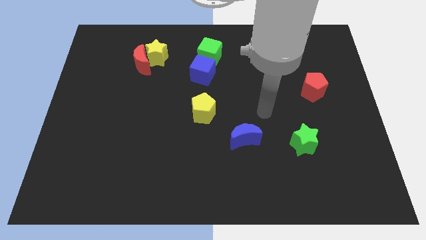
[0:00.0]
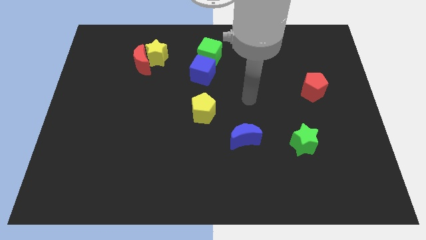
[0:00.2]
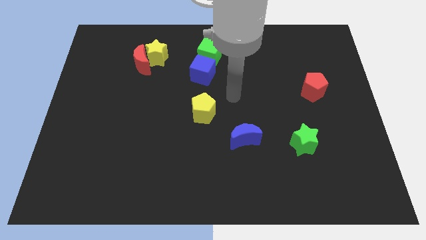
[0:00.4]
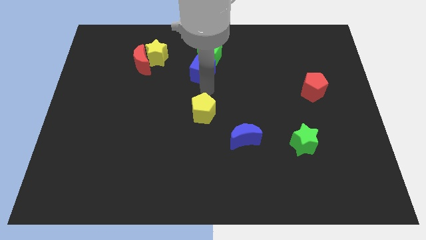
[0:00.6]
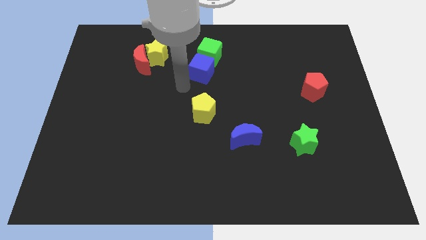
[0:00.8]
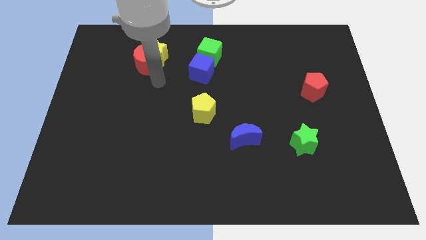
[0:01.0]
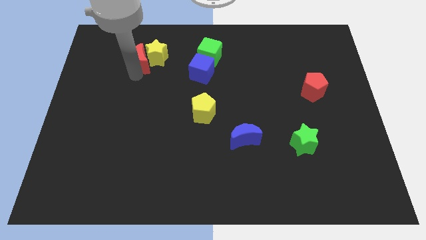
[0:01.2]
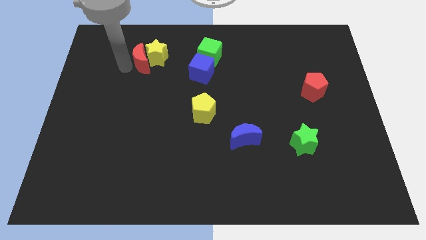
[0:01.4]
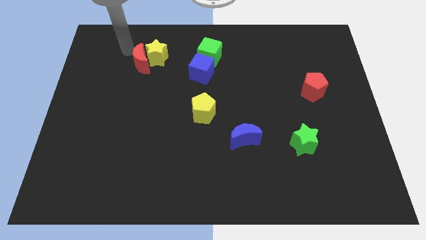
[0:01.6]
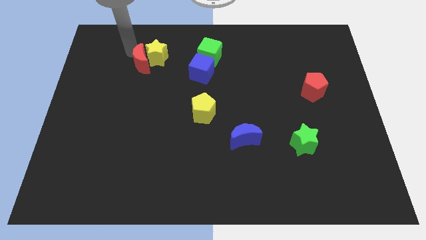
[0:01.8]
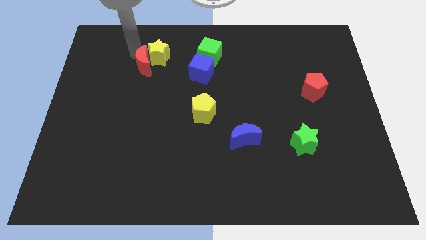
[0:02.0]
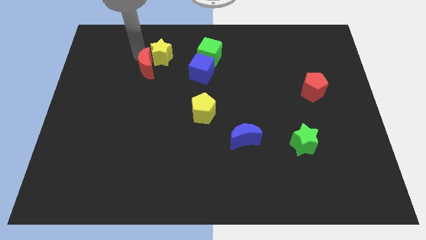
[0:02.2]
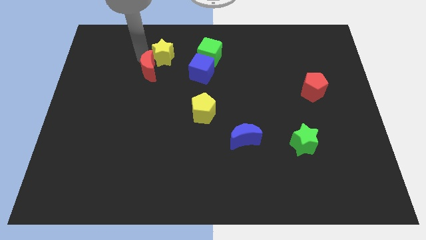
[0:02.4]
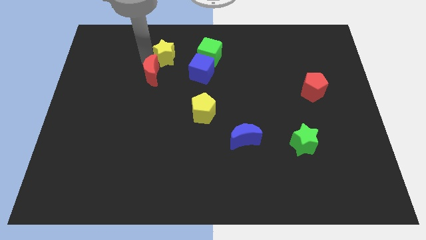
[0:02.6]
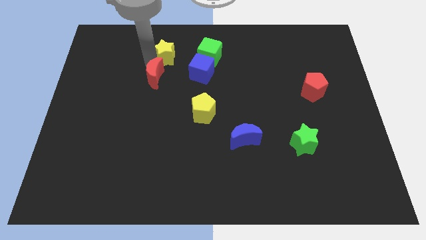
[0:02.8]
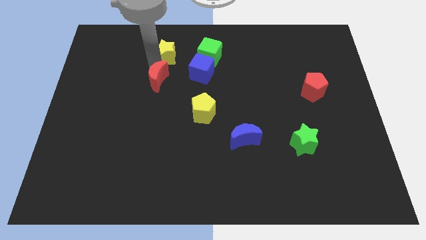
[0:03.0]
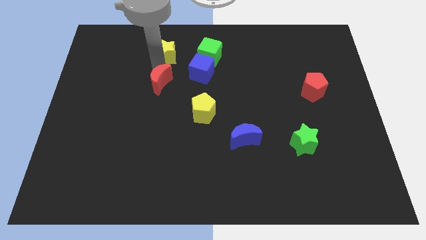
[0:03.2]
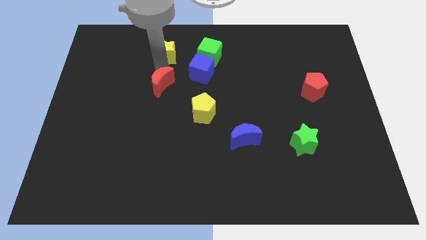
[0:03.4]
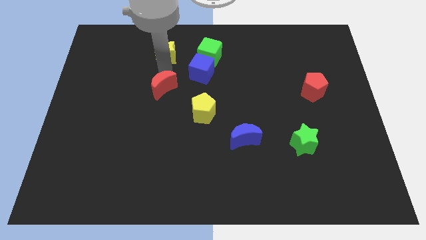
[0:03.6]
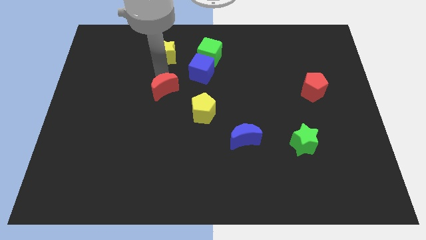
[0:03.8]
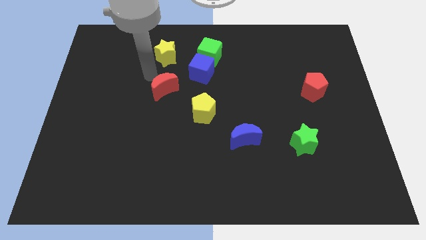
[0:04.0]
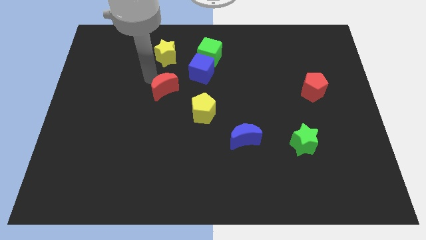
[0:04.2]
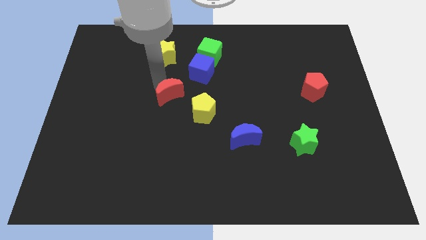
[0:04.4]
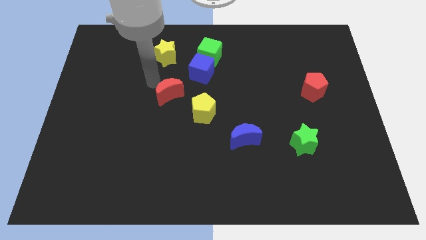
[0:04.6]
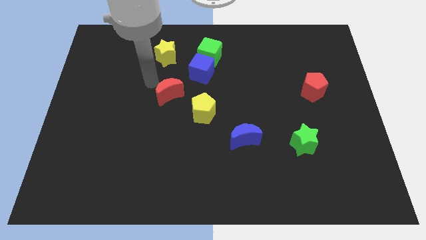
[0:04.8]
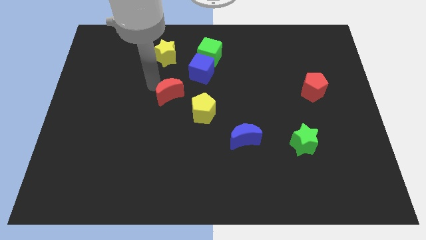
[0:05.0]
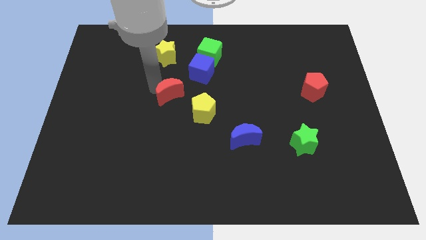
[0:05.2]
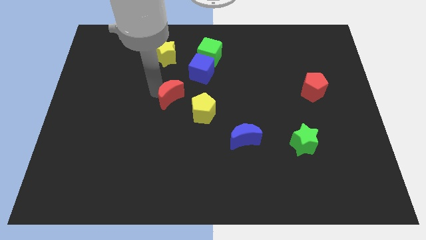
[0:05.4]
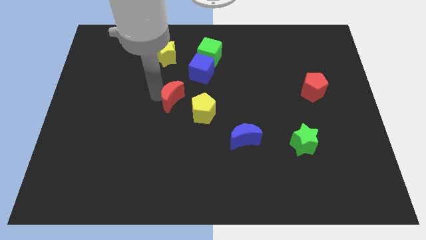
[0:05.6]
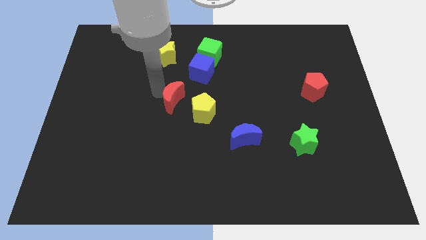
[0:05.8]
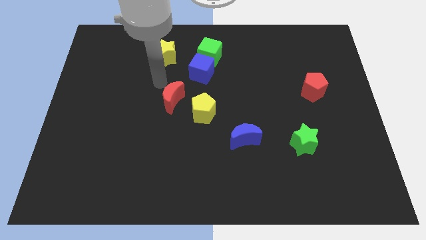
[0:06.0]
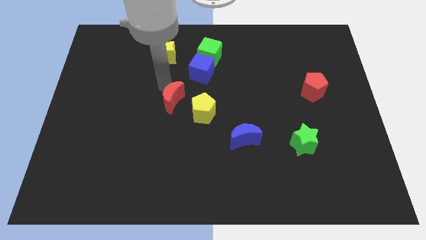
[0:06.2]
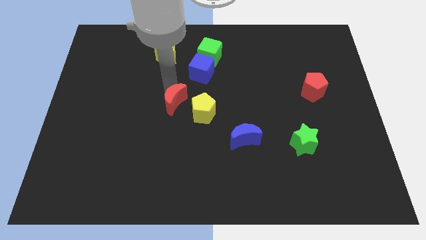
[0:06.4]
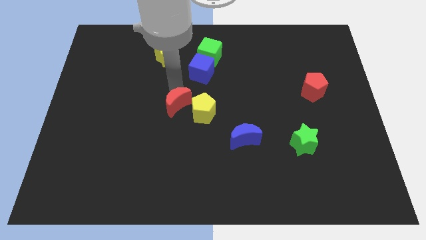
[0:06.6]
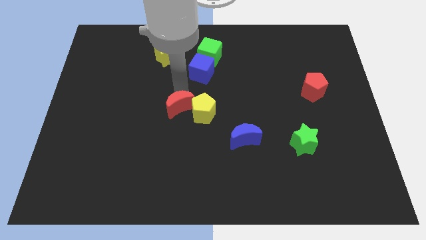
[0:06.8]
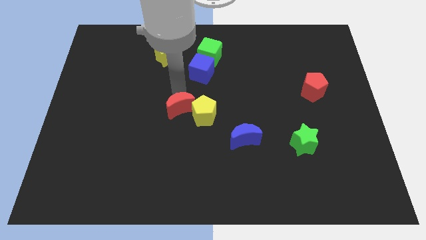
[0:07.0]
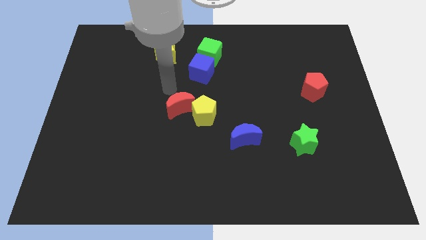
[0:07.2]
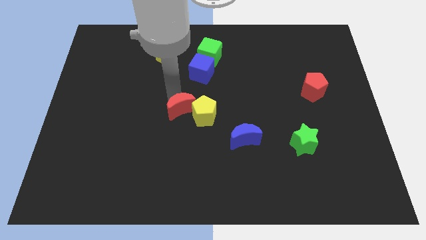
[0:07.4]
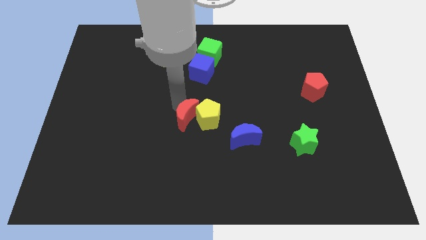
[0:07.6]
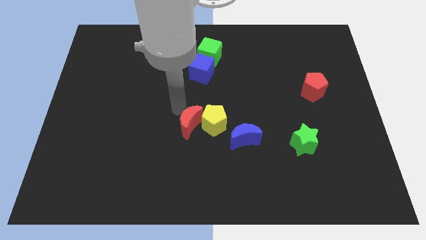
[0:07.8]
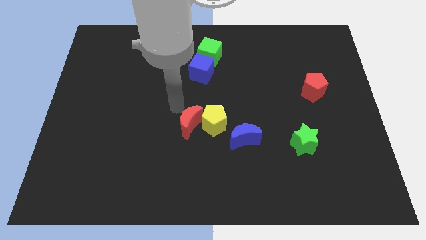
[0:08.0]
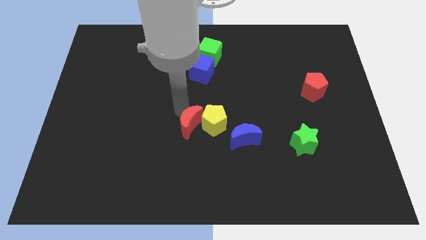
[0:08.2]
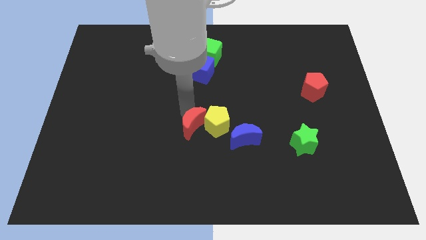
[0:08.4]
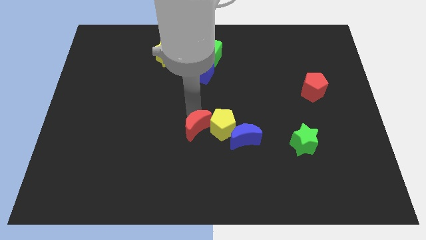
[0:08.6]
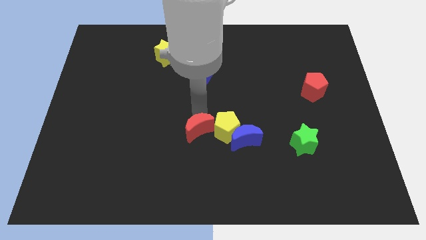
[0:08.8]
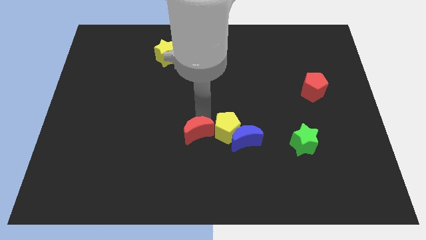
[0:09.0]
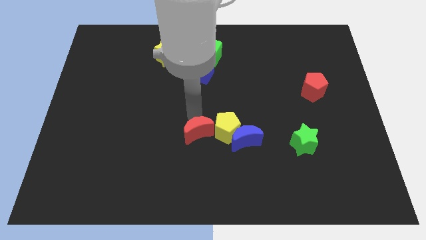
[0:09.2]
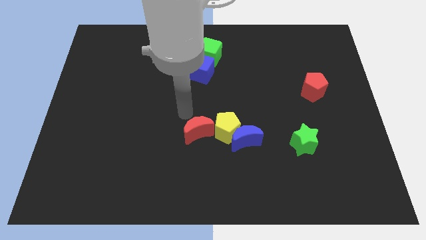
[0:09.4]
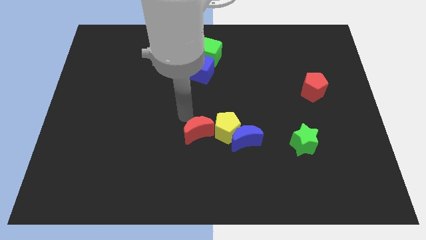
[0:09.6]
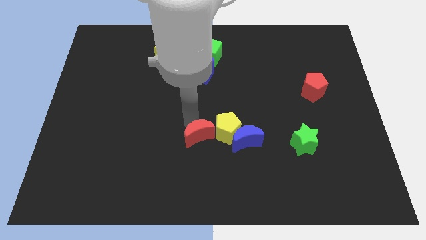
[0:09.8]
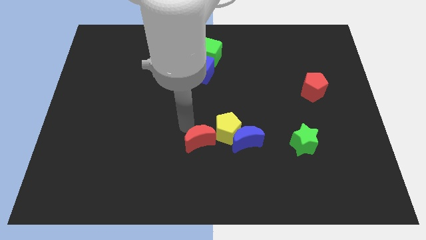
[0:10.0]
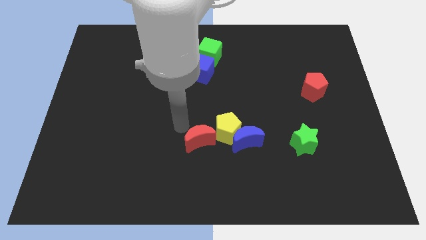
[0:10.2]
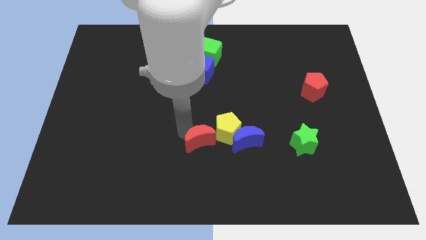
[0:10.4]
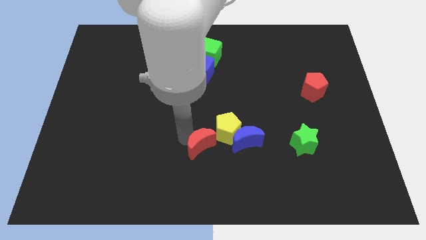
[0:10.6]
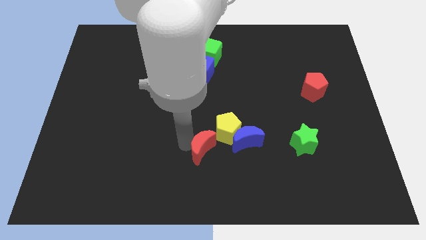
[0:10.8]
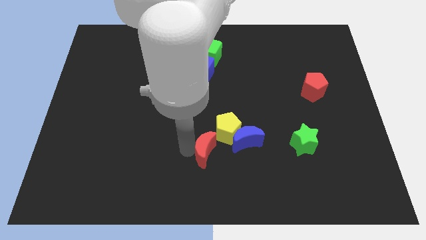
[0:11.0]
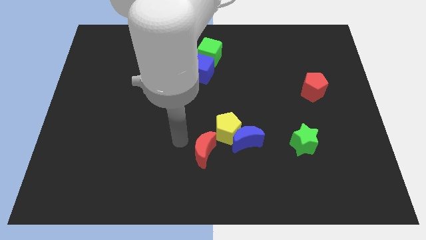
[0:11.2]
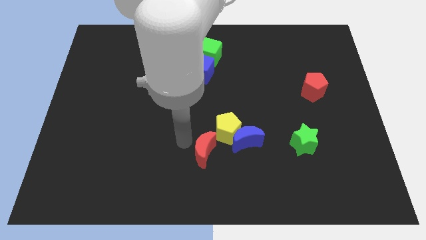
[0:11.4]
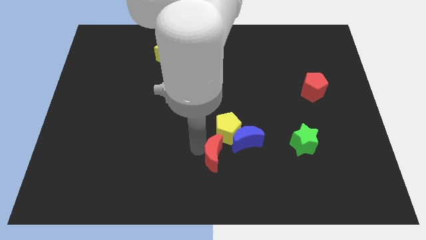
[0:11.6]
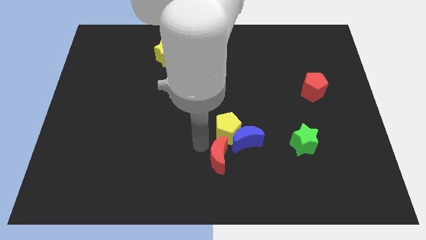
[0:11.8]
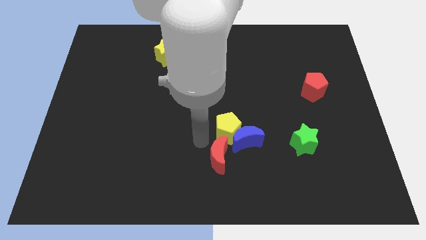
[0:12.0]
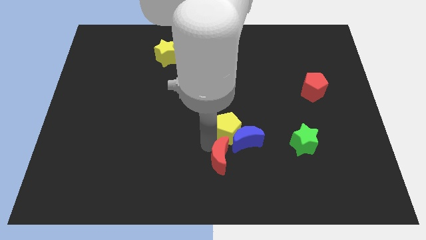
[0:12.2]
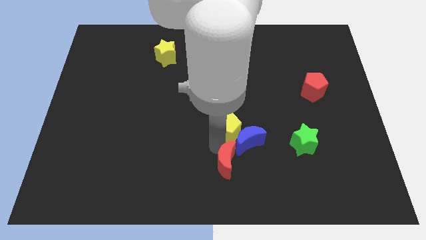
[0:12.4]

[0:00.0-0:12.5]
push the red moon below the blue moon

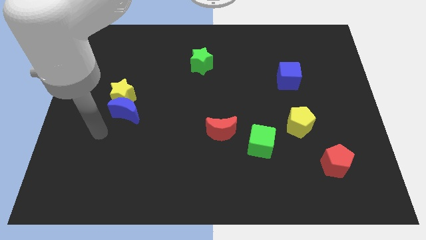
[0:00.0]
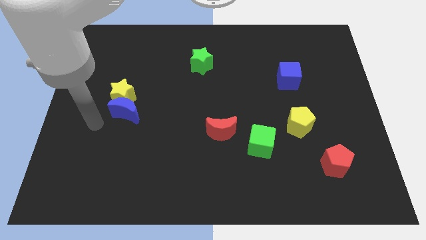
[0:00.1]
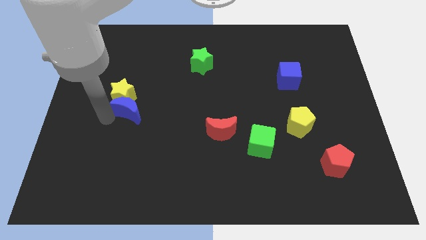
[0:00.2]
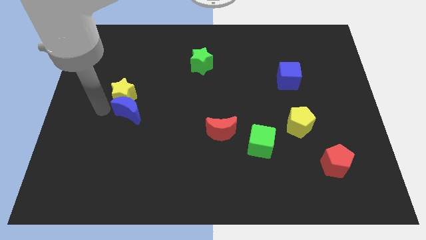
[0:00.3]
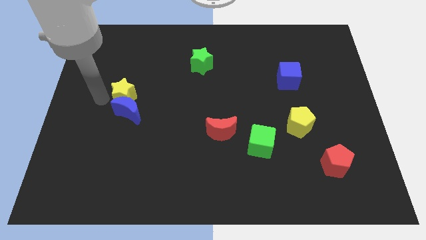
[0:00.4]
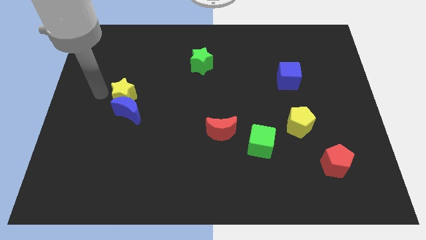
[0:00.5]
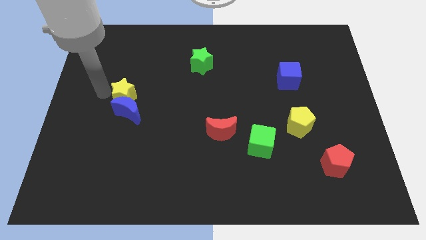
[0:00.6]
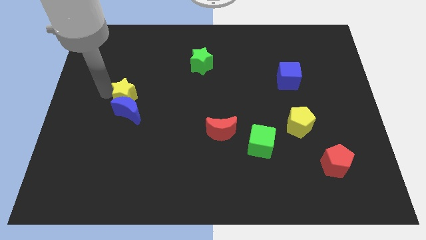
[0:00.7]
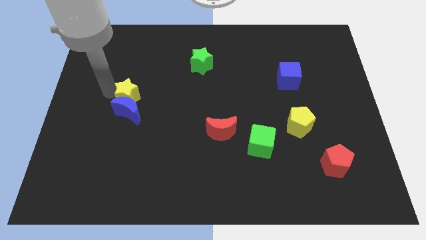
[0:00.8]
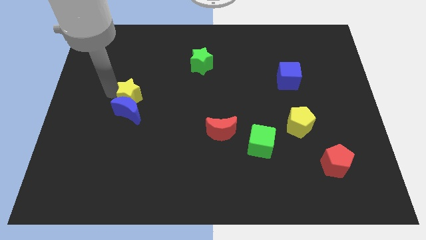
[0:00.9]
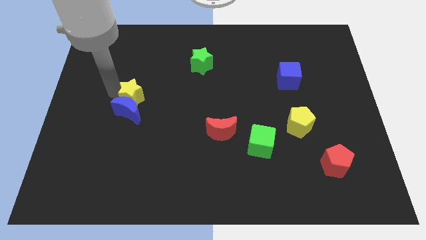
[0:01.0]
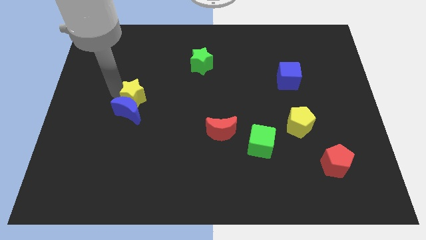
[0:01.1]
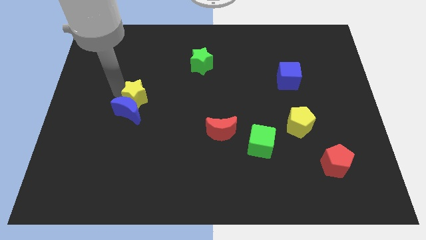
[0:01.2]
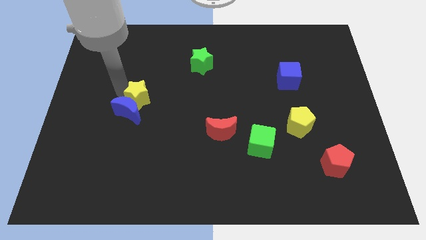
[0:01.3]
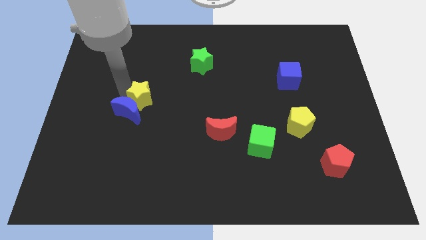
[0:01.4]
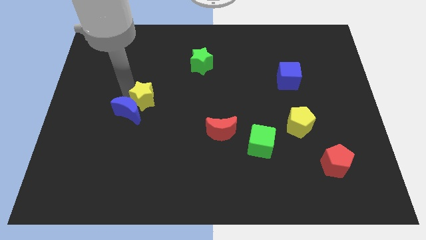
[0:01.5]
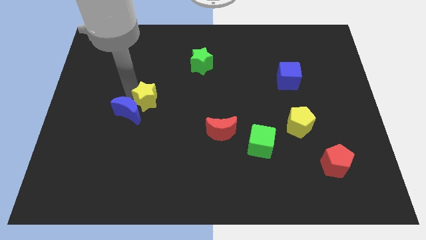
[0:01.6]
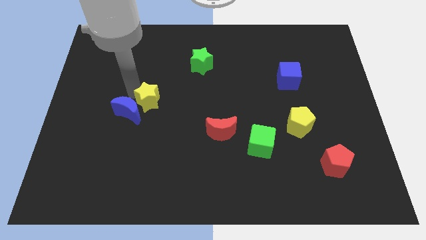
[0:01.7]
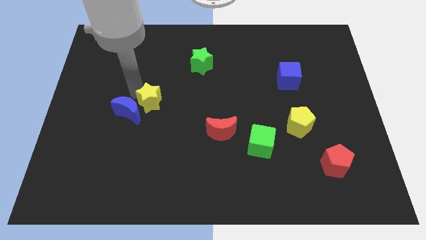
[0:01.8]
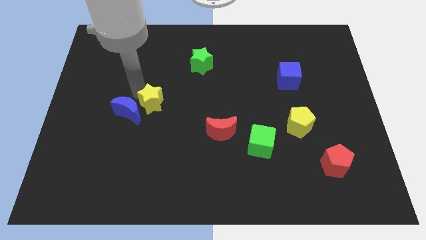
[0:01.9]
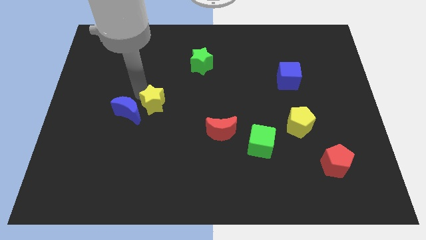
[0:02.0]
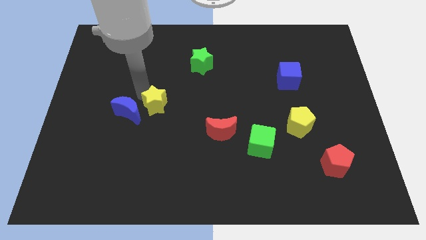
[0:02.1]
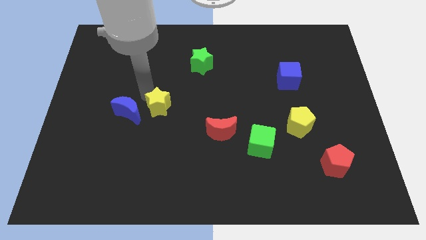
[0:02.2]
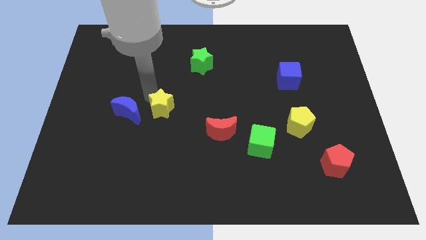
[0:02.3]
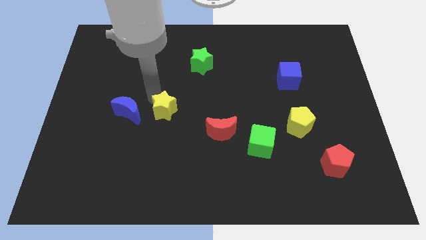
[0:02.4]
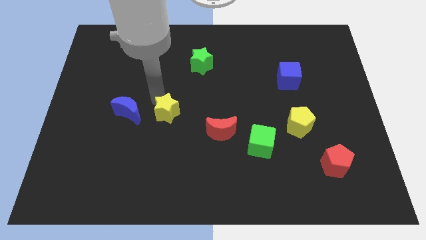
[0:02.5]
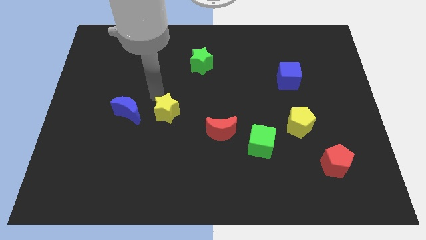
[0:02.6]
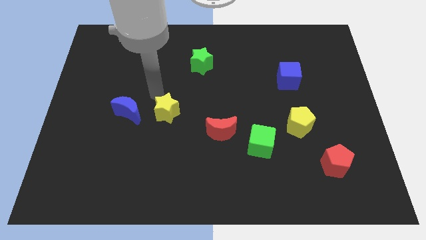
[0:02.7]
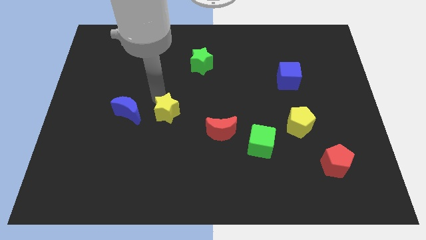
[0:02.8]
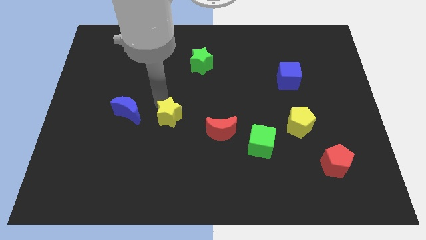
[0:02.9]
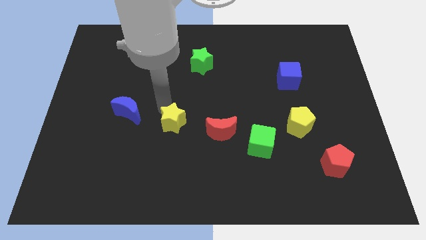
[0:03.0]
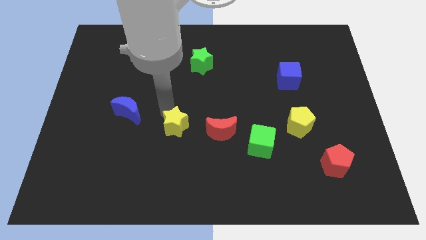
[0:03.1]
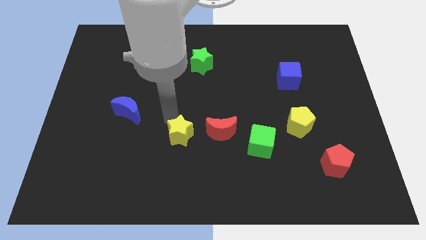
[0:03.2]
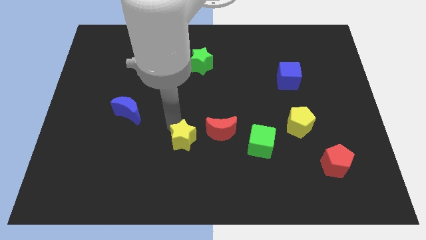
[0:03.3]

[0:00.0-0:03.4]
slide the yellow star to the bottom left of the red moon
